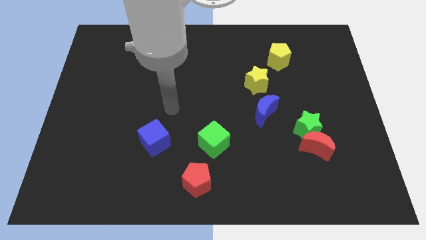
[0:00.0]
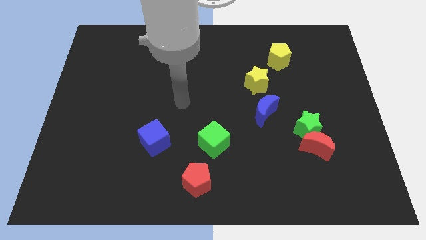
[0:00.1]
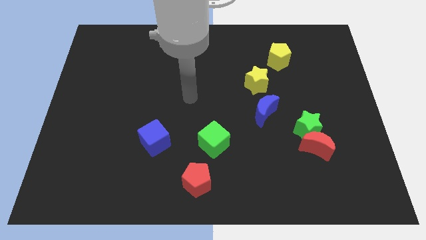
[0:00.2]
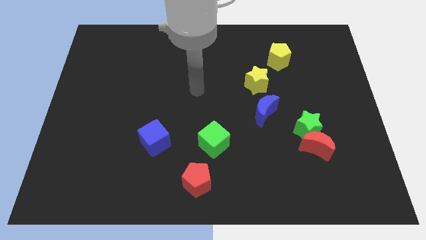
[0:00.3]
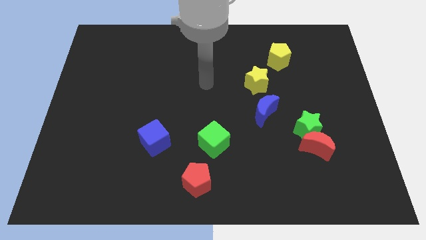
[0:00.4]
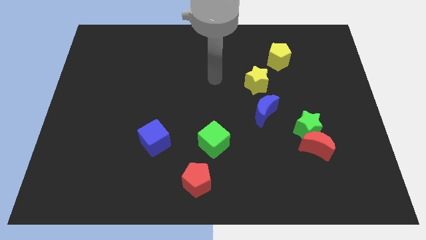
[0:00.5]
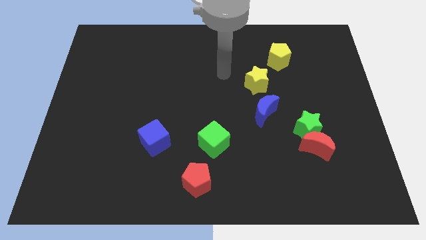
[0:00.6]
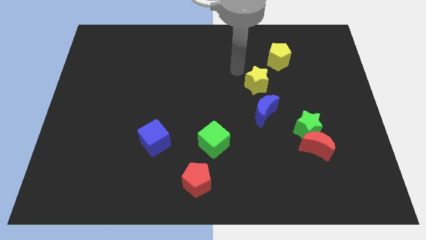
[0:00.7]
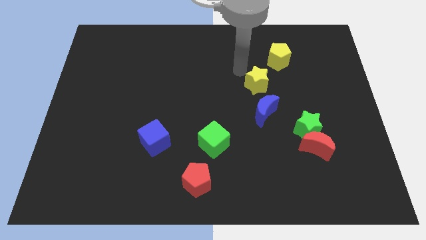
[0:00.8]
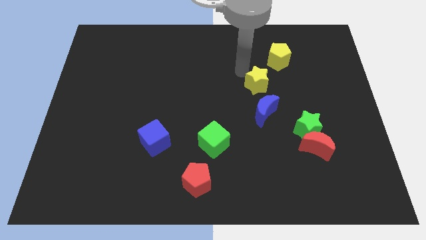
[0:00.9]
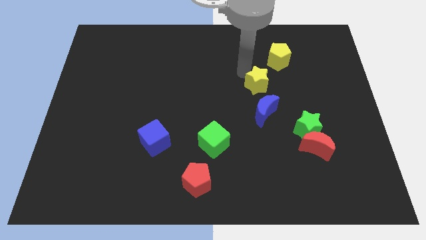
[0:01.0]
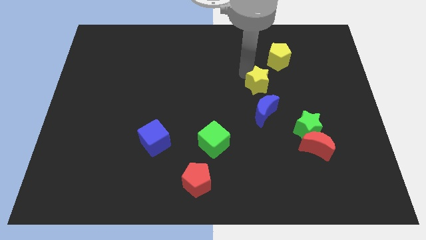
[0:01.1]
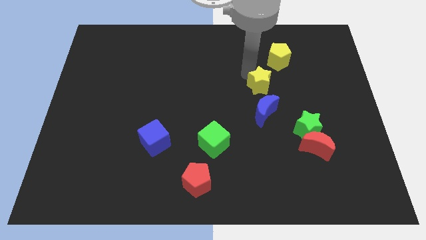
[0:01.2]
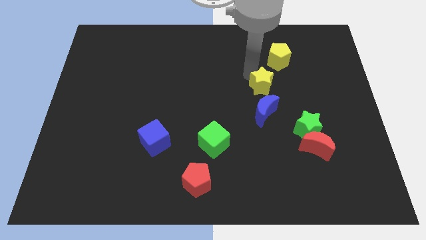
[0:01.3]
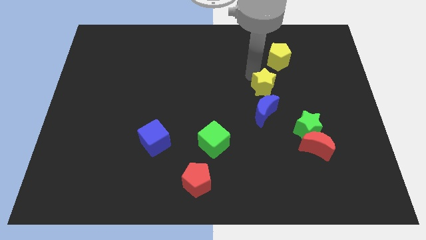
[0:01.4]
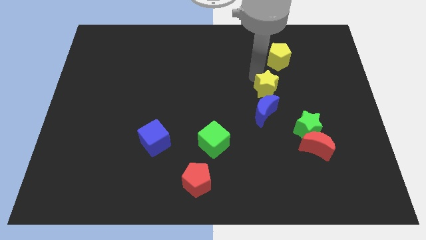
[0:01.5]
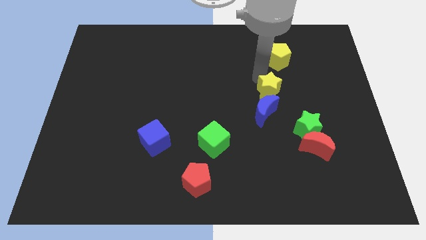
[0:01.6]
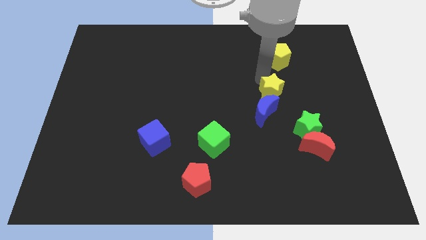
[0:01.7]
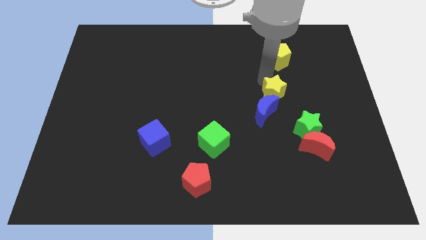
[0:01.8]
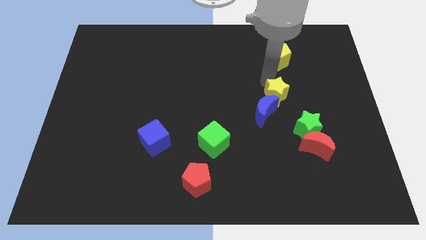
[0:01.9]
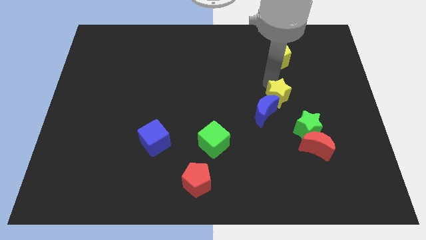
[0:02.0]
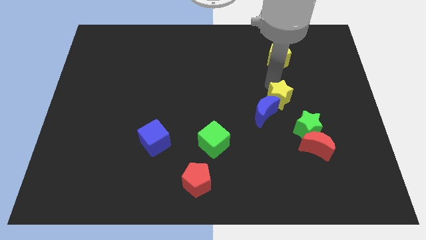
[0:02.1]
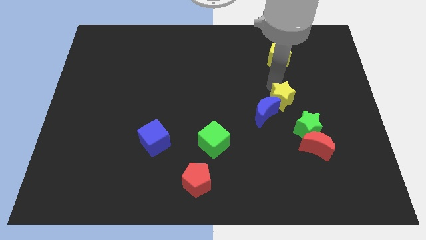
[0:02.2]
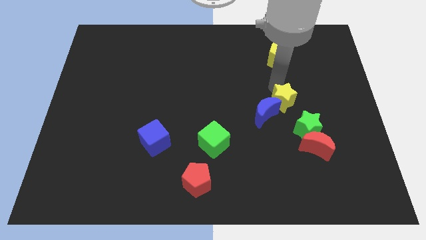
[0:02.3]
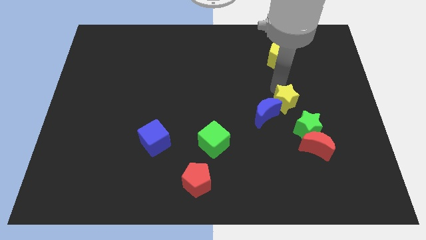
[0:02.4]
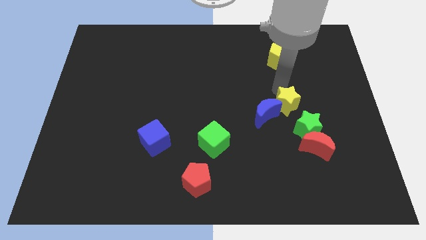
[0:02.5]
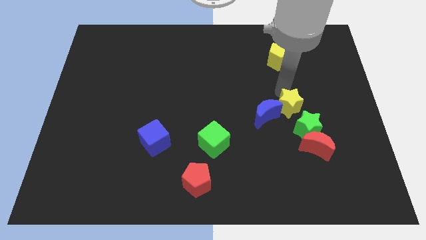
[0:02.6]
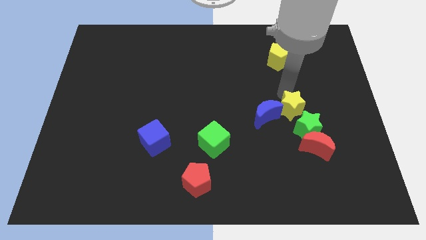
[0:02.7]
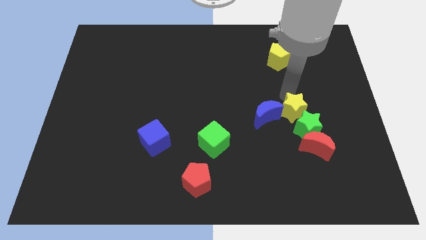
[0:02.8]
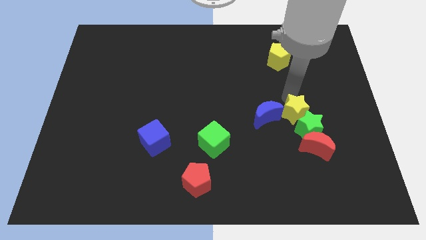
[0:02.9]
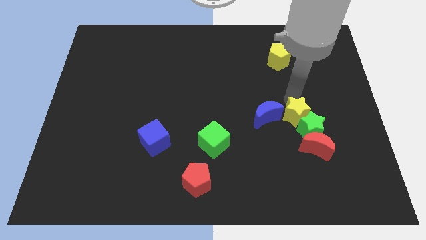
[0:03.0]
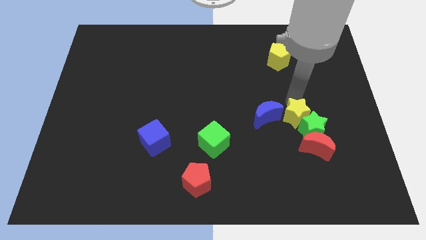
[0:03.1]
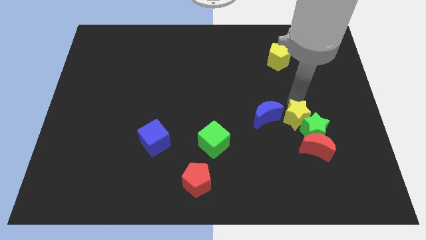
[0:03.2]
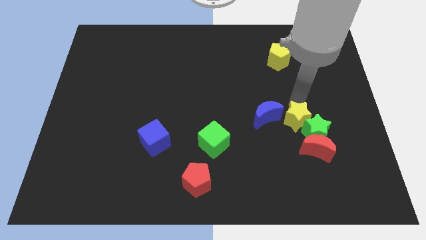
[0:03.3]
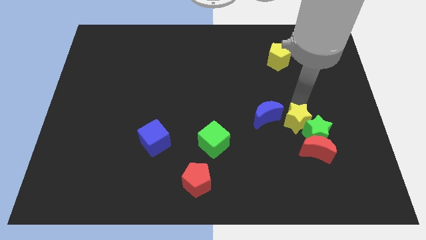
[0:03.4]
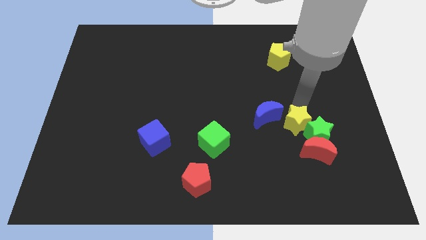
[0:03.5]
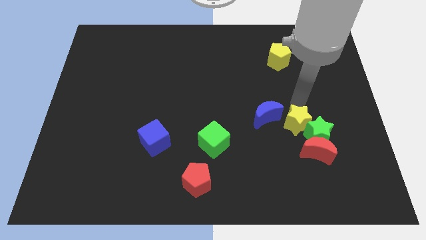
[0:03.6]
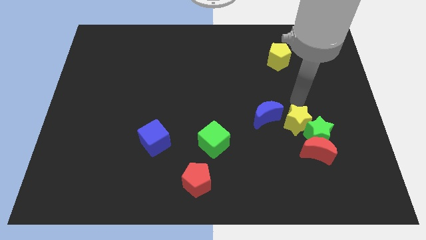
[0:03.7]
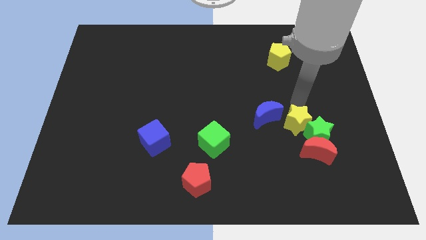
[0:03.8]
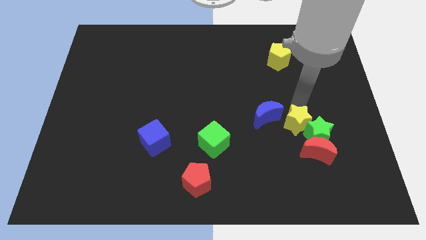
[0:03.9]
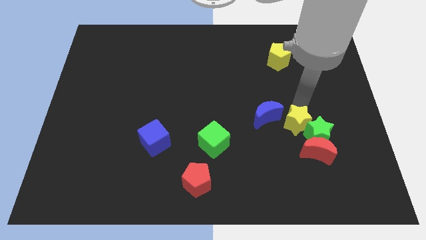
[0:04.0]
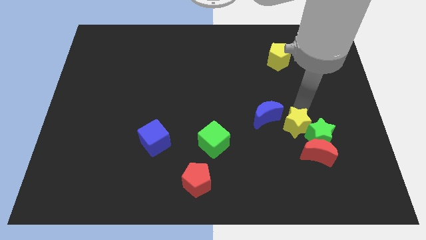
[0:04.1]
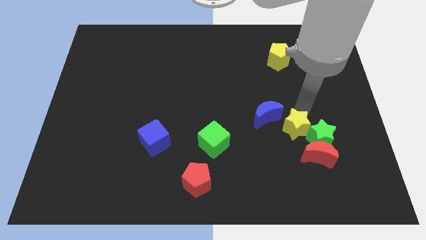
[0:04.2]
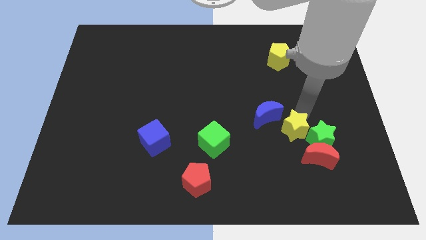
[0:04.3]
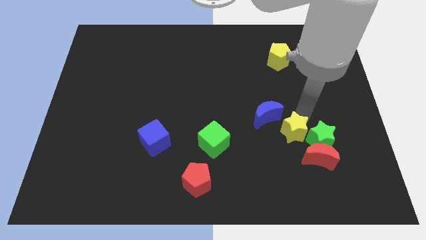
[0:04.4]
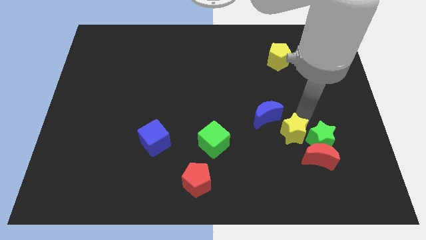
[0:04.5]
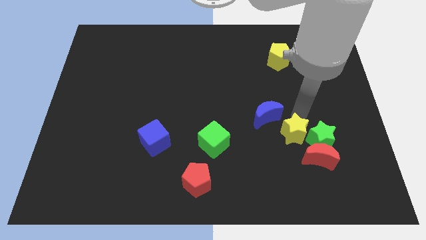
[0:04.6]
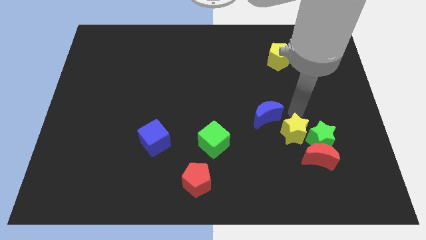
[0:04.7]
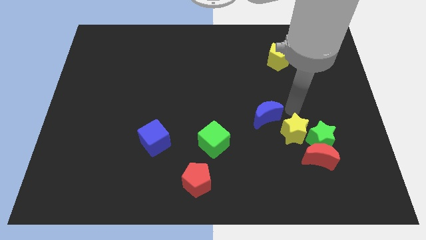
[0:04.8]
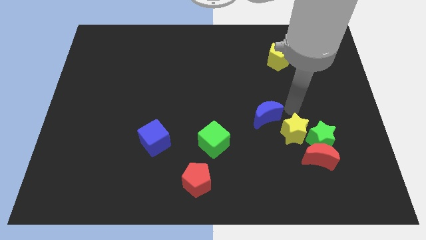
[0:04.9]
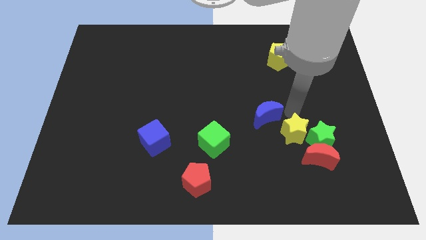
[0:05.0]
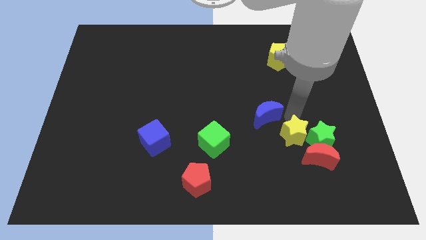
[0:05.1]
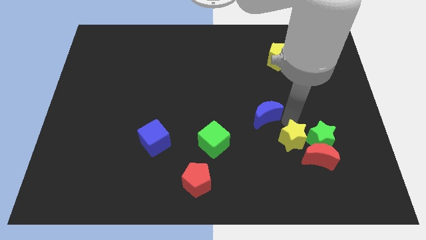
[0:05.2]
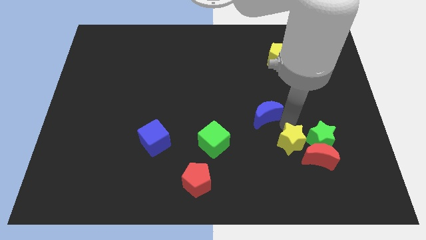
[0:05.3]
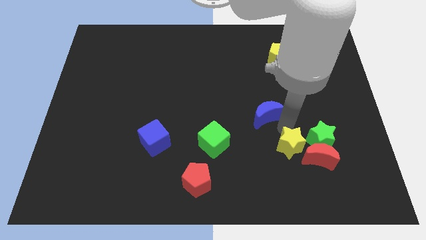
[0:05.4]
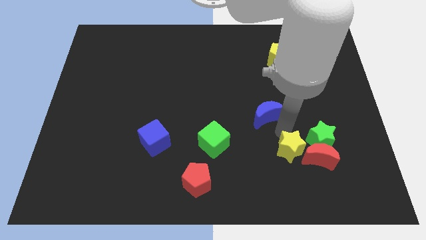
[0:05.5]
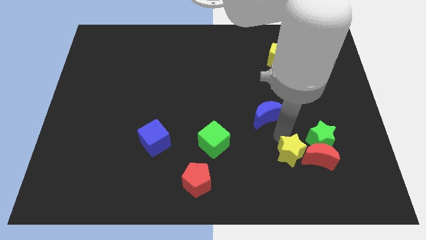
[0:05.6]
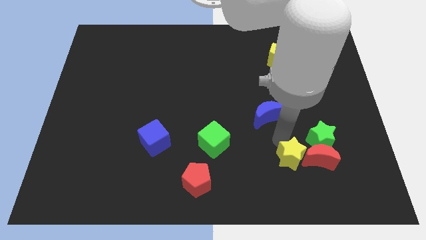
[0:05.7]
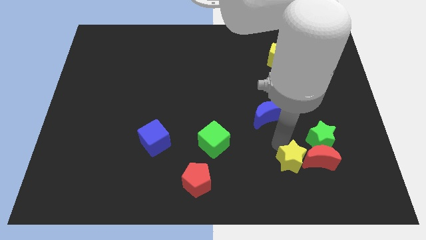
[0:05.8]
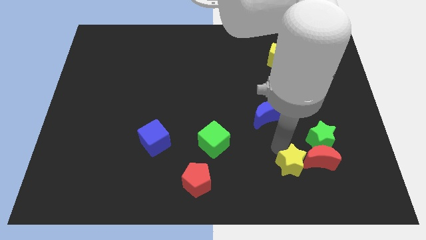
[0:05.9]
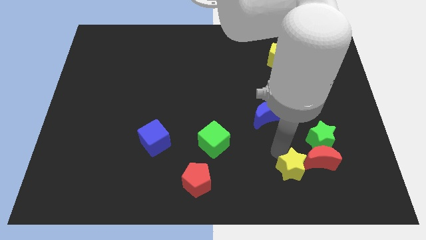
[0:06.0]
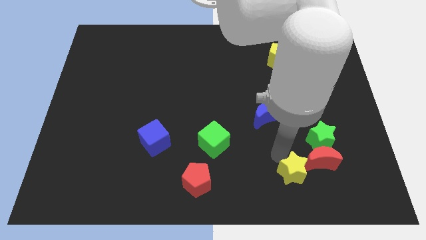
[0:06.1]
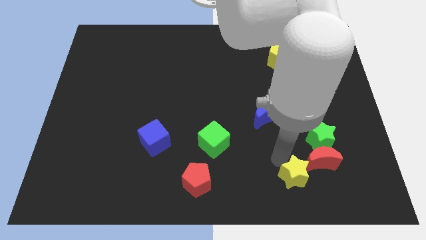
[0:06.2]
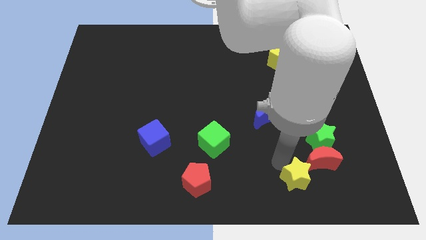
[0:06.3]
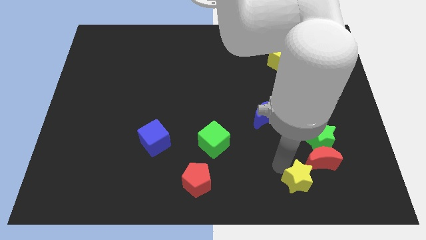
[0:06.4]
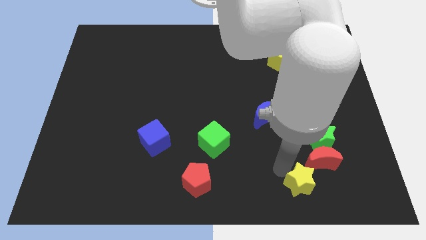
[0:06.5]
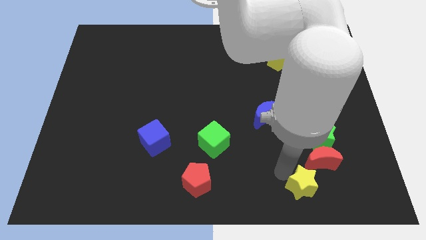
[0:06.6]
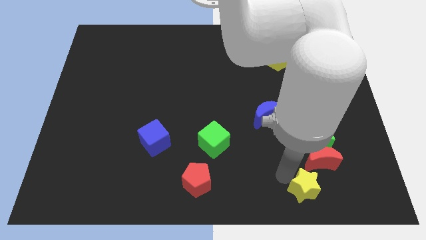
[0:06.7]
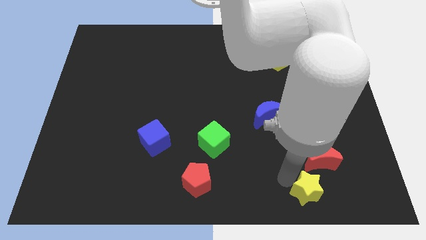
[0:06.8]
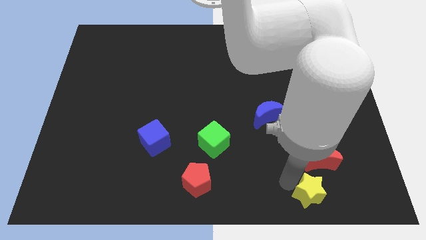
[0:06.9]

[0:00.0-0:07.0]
slide the yellow star to the bottom of the green star
